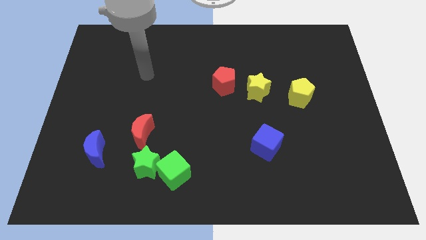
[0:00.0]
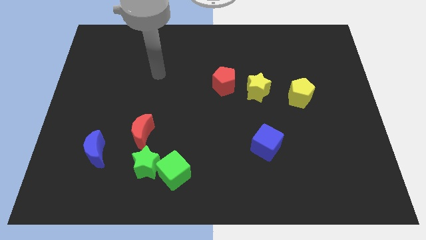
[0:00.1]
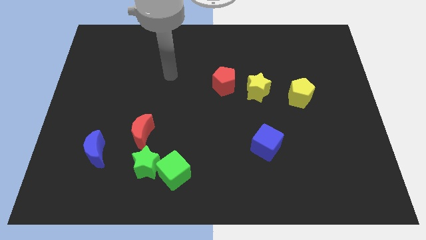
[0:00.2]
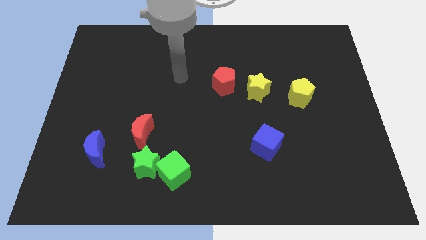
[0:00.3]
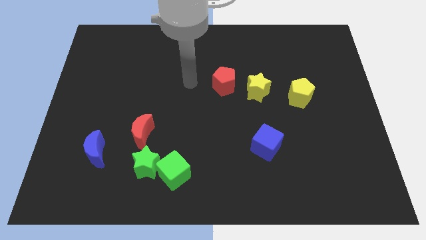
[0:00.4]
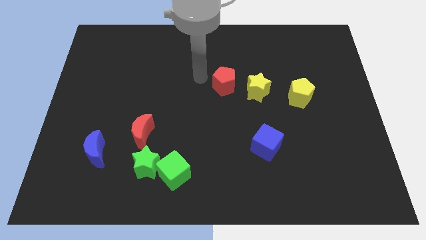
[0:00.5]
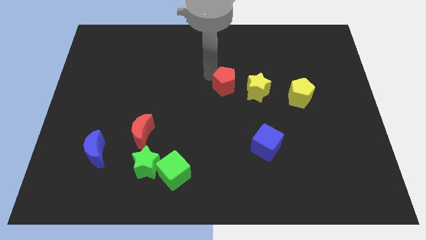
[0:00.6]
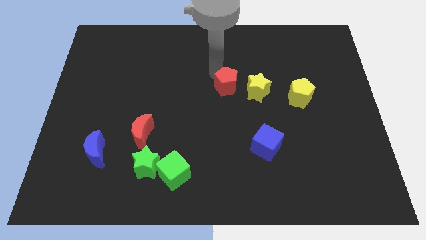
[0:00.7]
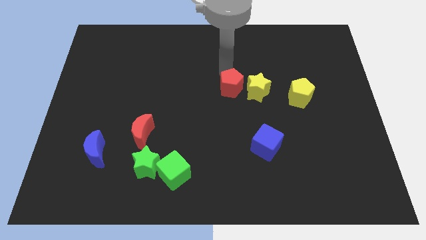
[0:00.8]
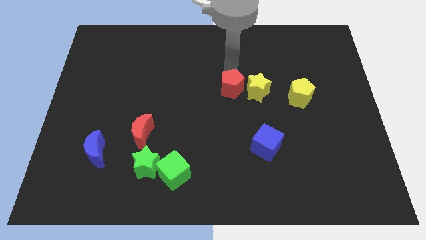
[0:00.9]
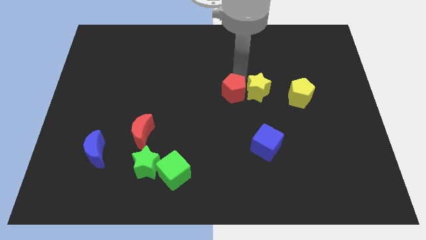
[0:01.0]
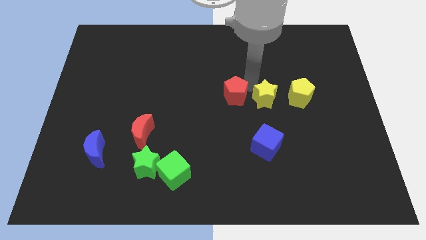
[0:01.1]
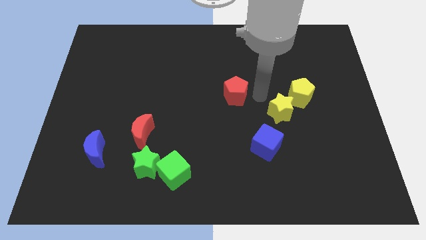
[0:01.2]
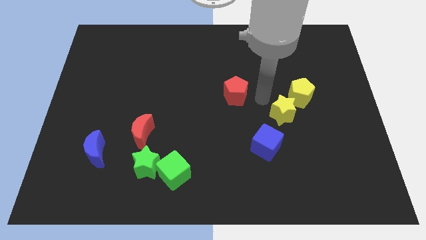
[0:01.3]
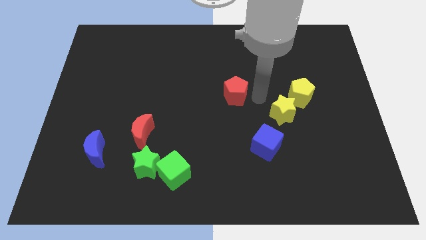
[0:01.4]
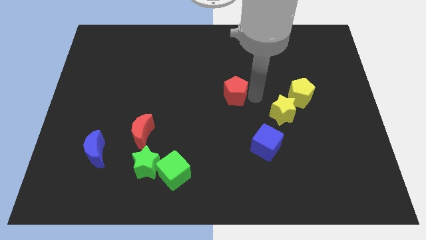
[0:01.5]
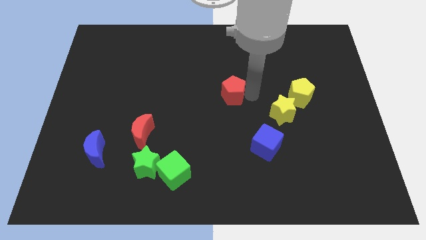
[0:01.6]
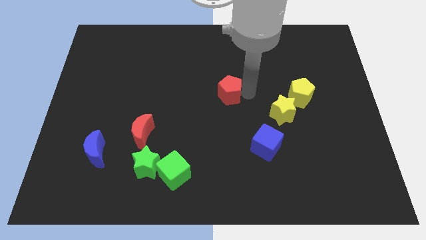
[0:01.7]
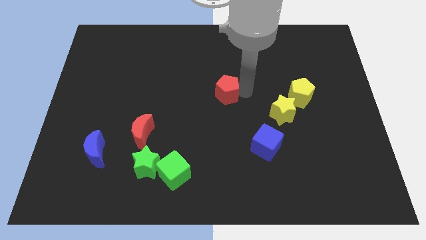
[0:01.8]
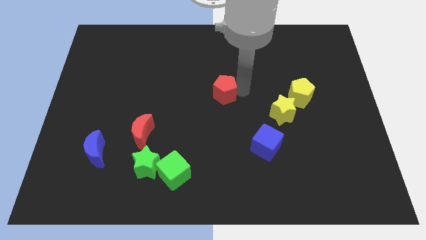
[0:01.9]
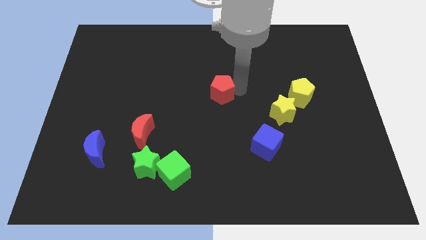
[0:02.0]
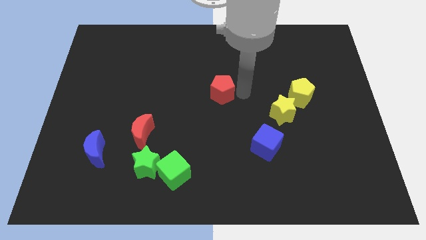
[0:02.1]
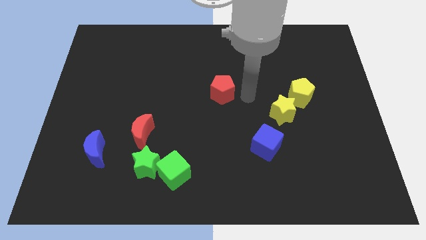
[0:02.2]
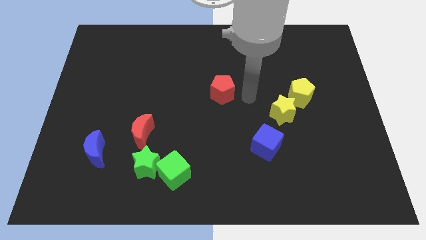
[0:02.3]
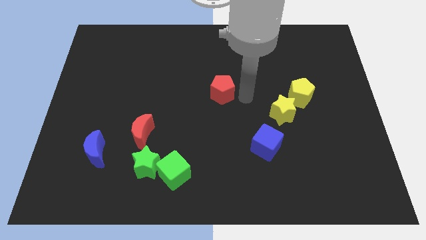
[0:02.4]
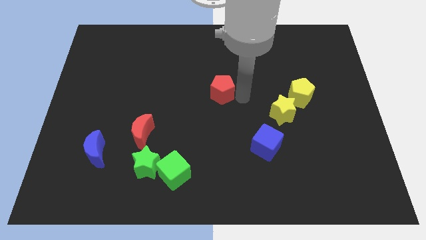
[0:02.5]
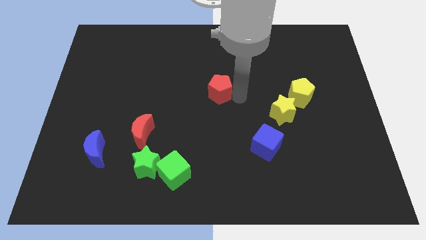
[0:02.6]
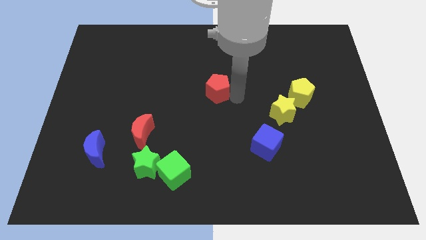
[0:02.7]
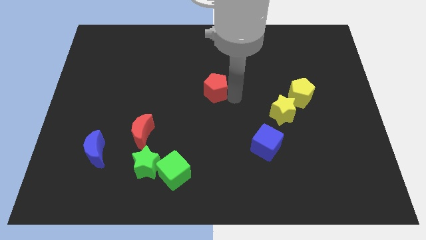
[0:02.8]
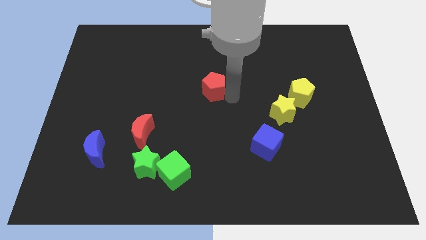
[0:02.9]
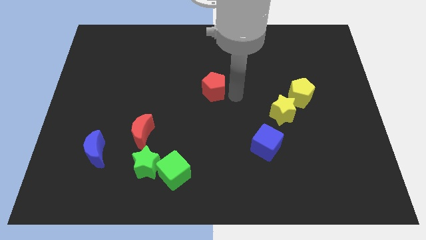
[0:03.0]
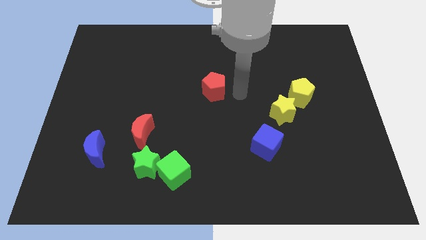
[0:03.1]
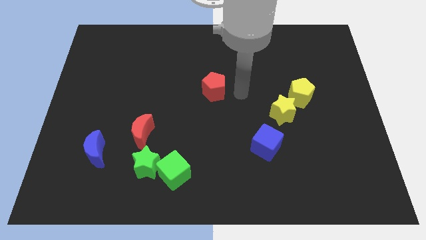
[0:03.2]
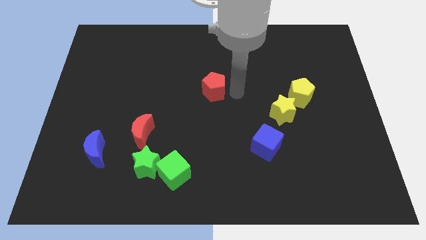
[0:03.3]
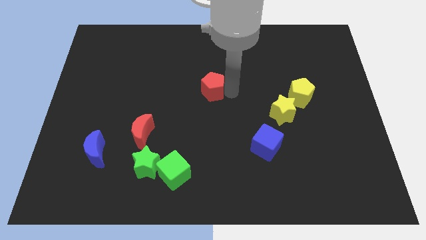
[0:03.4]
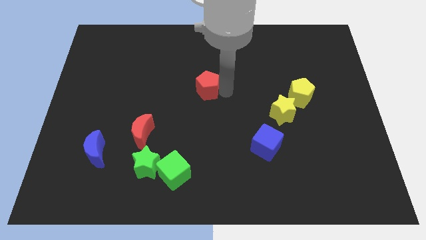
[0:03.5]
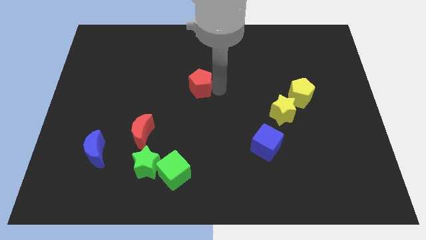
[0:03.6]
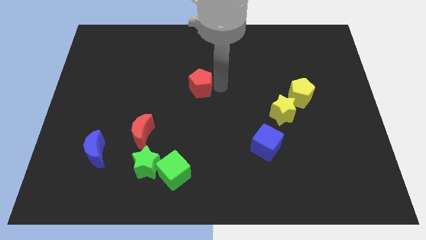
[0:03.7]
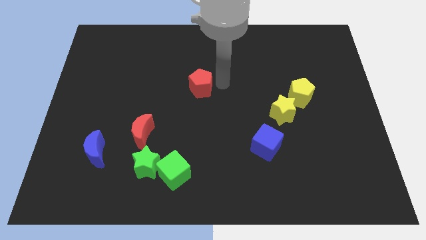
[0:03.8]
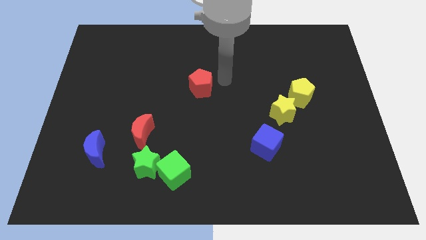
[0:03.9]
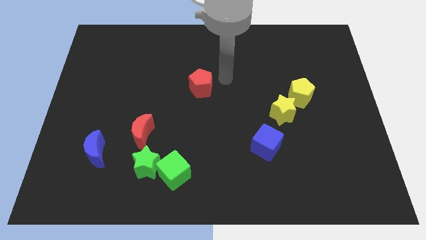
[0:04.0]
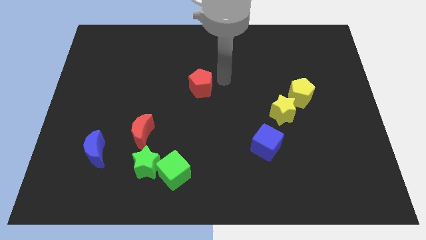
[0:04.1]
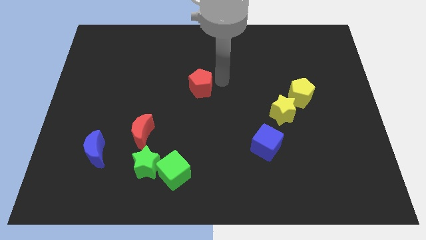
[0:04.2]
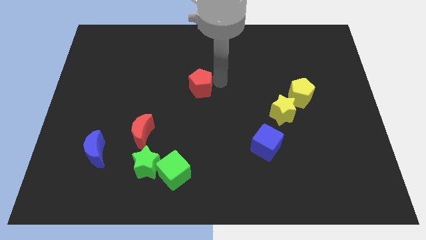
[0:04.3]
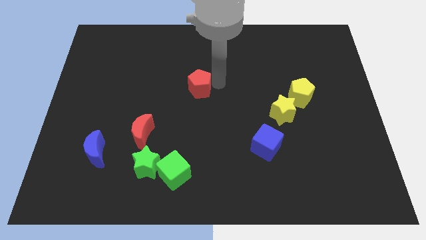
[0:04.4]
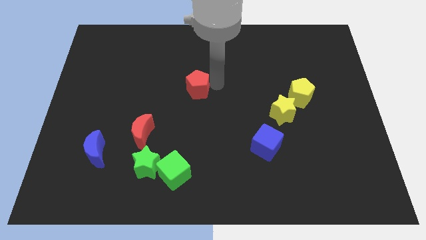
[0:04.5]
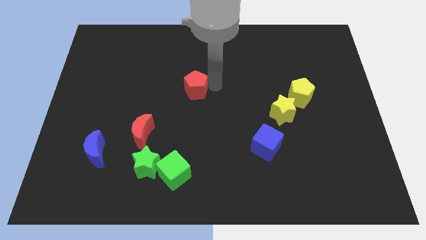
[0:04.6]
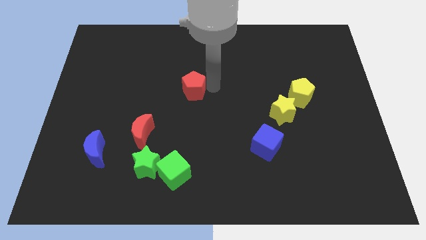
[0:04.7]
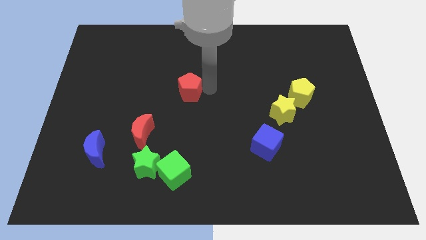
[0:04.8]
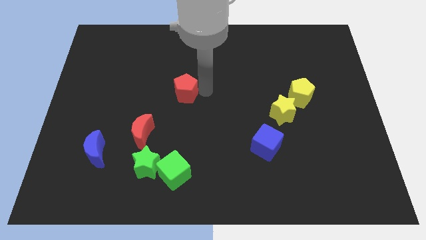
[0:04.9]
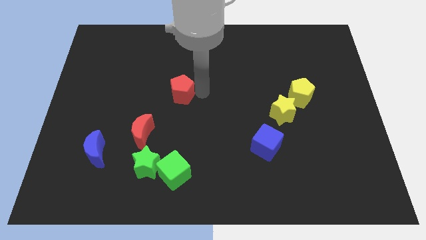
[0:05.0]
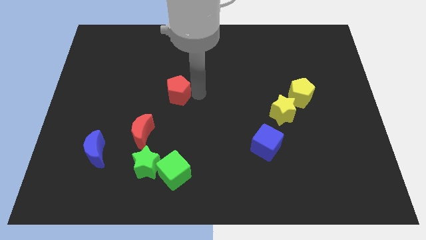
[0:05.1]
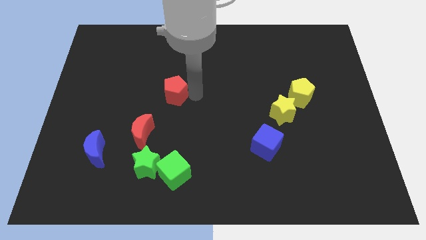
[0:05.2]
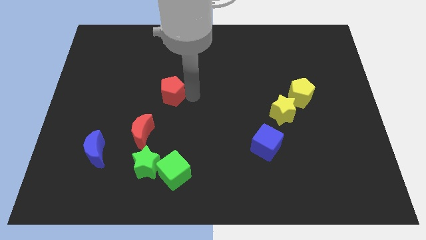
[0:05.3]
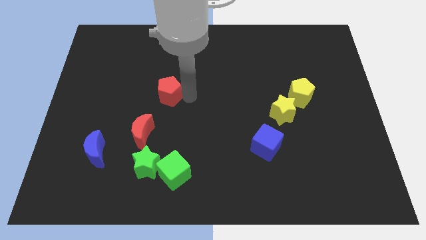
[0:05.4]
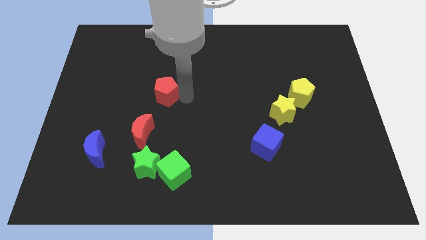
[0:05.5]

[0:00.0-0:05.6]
slide the red pentagon to the top of the red moon

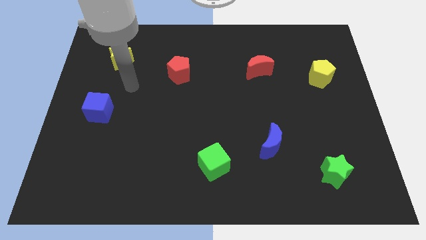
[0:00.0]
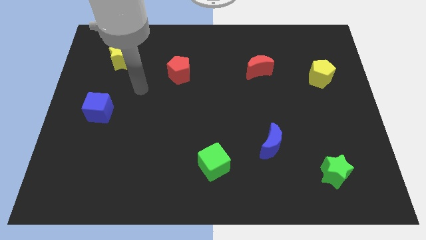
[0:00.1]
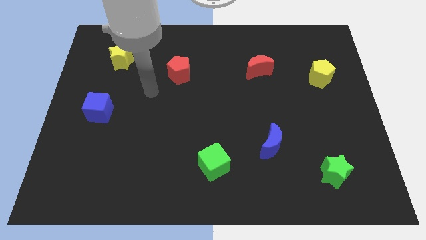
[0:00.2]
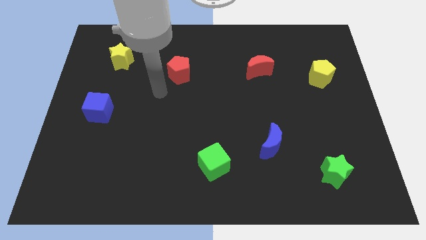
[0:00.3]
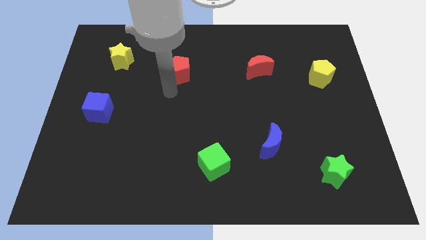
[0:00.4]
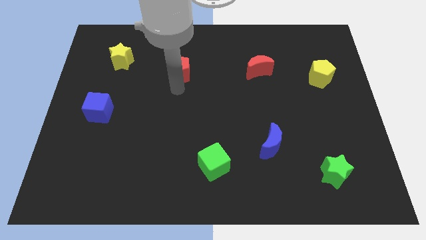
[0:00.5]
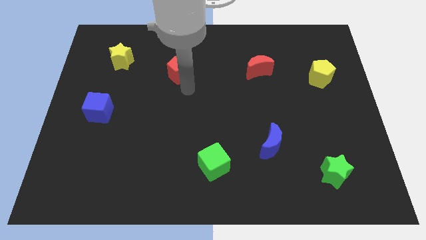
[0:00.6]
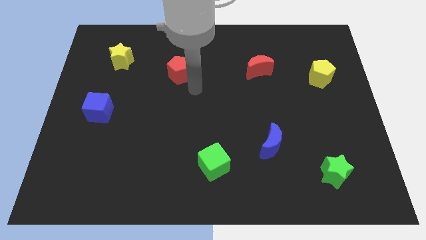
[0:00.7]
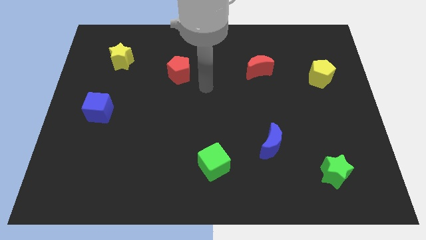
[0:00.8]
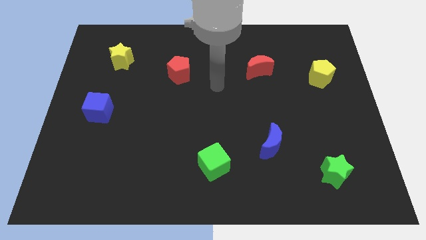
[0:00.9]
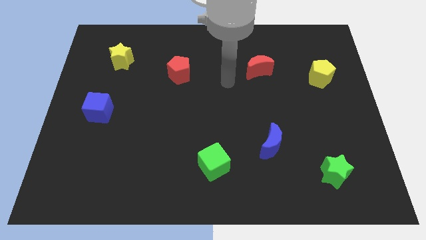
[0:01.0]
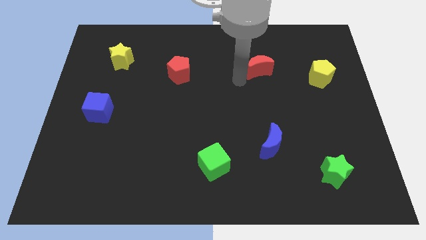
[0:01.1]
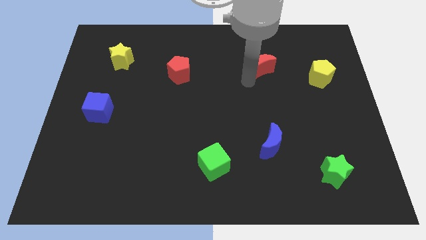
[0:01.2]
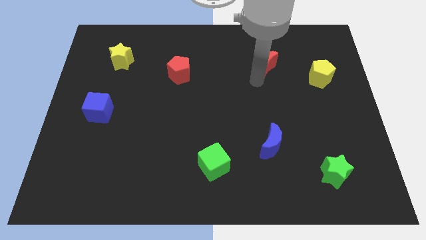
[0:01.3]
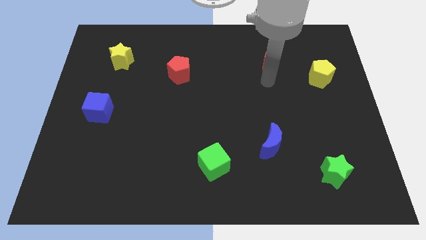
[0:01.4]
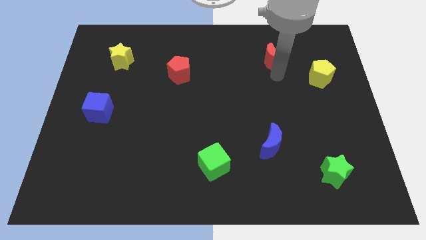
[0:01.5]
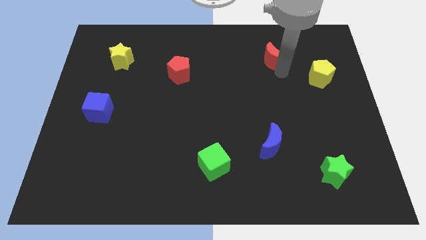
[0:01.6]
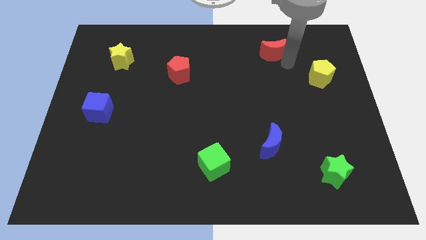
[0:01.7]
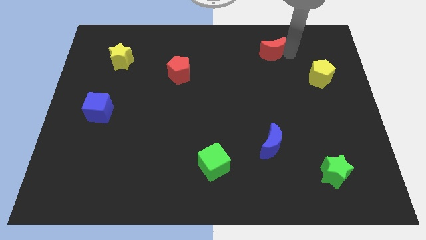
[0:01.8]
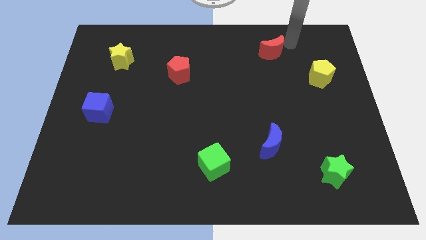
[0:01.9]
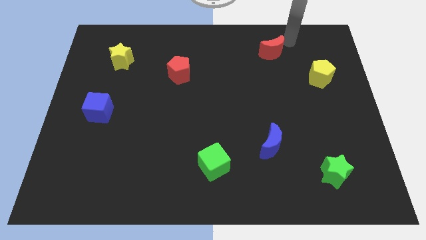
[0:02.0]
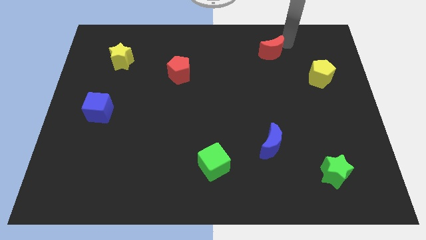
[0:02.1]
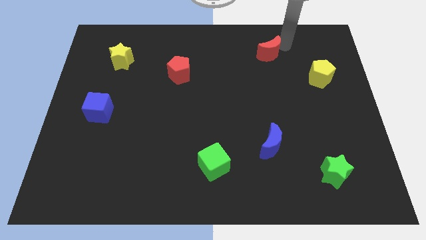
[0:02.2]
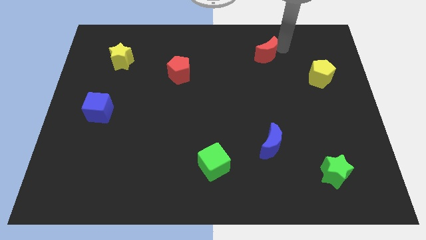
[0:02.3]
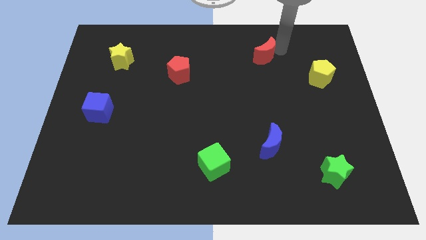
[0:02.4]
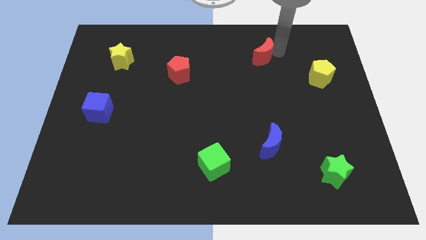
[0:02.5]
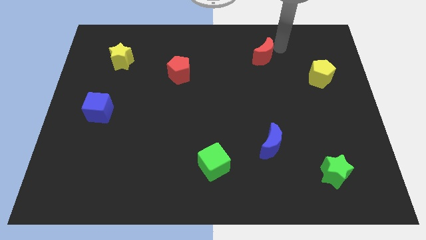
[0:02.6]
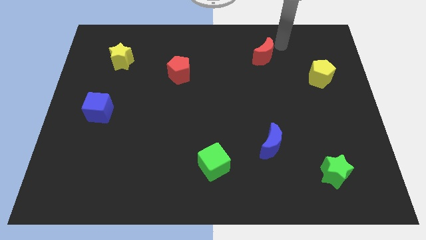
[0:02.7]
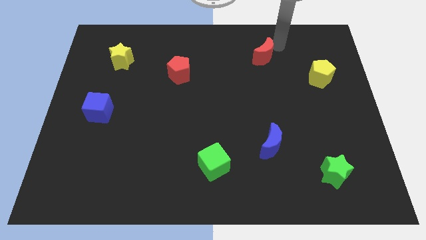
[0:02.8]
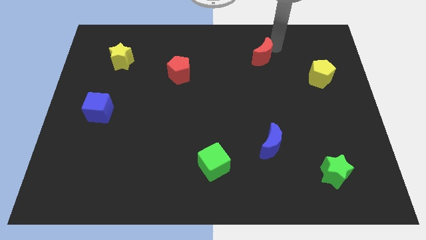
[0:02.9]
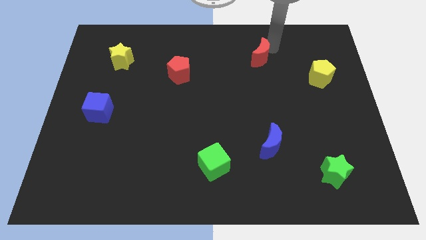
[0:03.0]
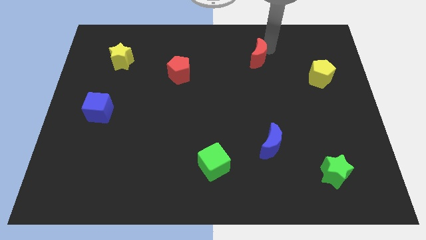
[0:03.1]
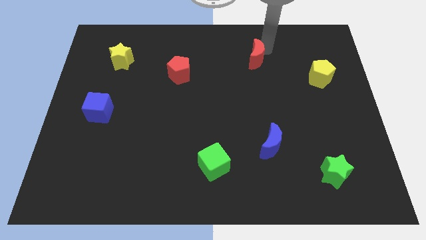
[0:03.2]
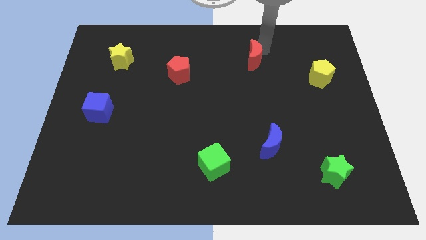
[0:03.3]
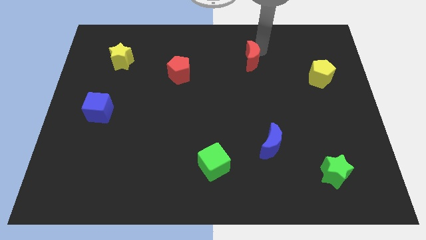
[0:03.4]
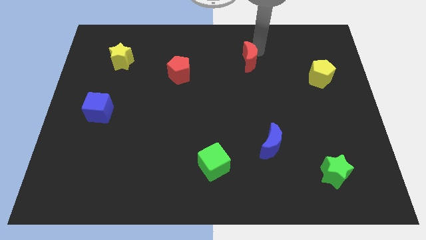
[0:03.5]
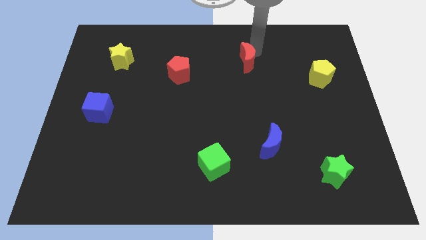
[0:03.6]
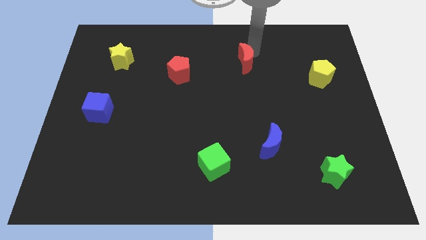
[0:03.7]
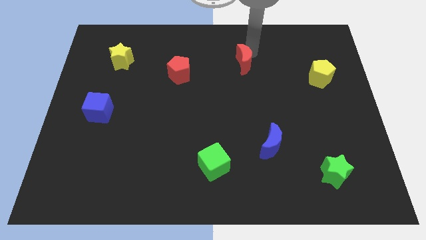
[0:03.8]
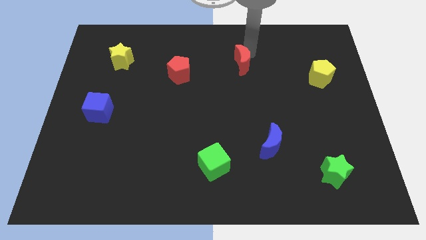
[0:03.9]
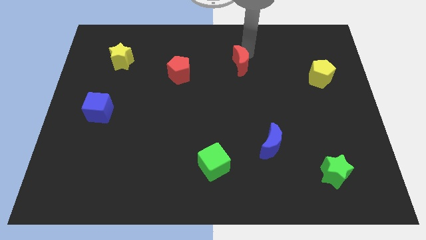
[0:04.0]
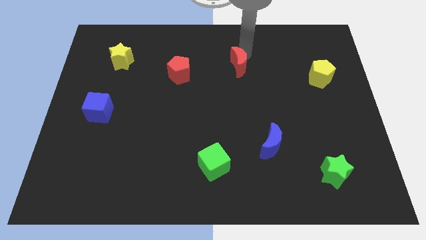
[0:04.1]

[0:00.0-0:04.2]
slide the red moon right of the red pentagon
